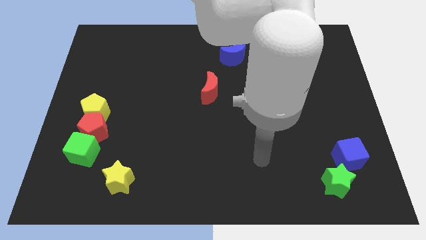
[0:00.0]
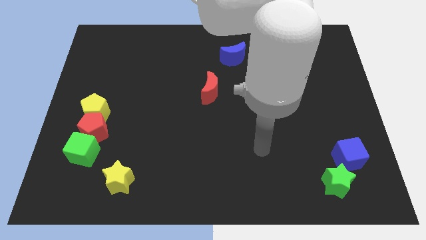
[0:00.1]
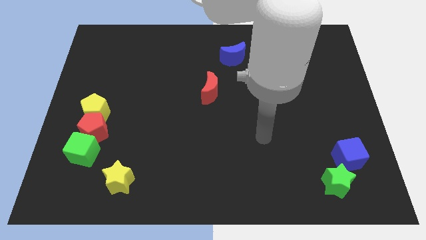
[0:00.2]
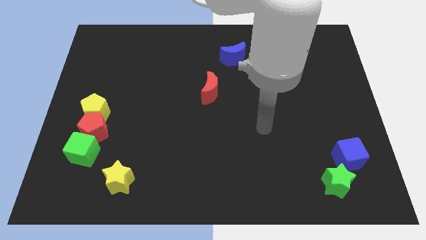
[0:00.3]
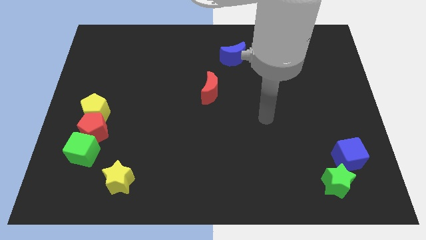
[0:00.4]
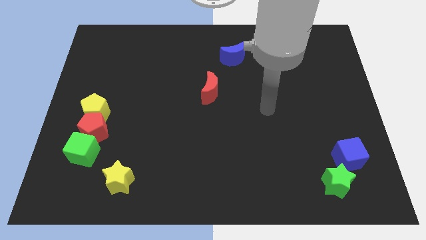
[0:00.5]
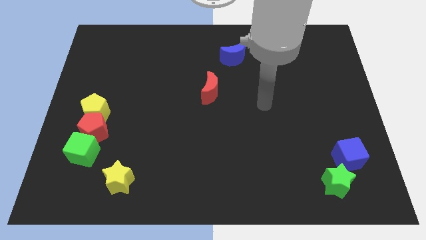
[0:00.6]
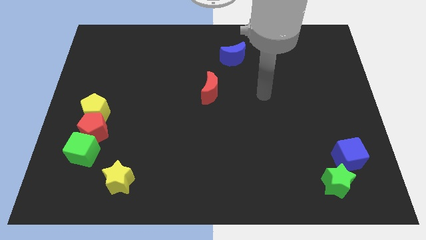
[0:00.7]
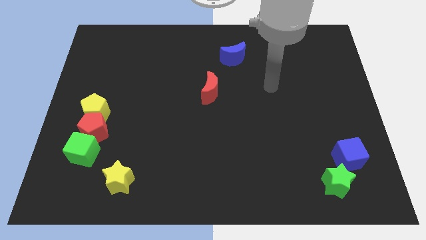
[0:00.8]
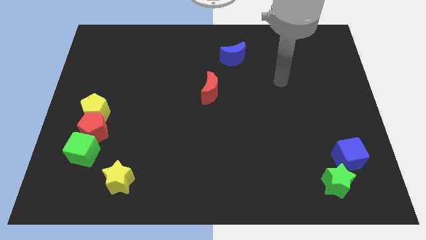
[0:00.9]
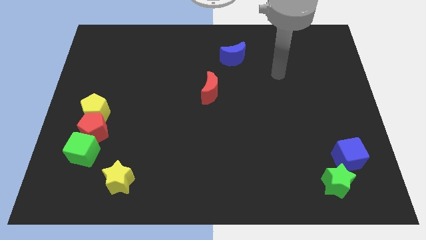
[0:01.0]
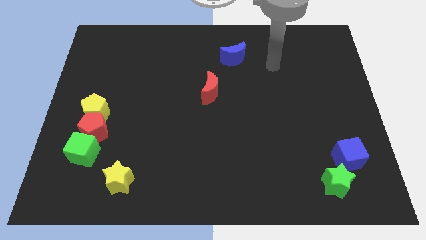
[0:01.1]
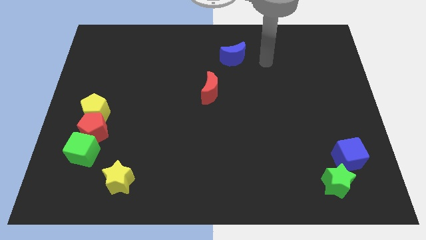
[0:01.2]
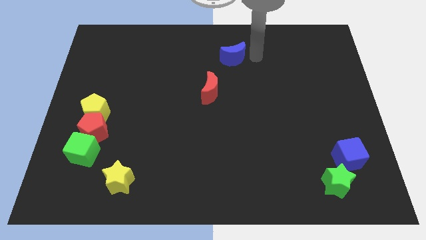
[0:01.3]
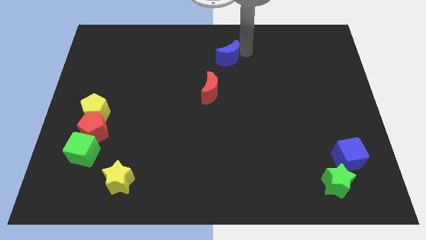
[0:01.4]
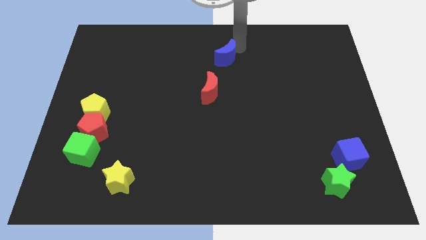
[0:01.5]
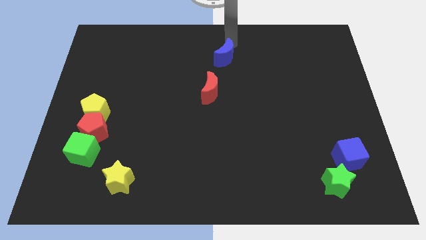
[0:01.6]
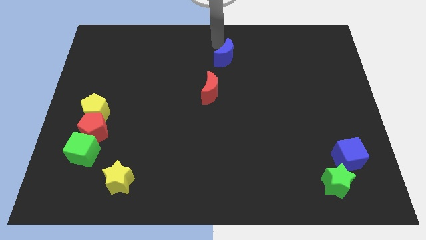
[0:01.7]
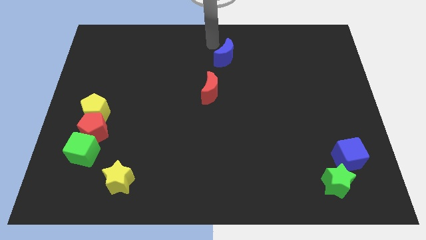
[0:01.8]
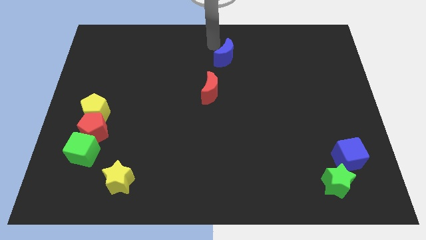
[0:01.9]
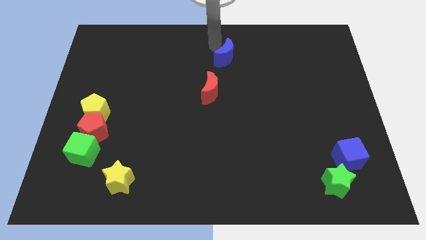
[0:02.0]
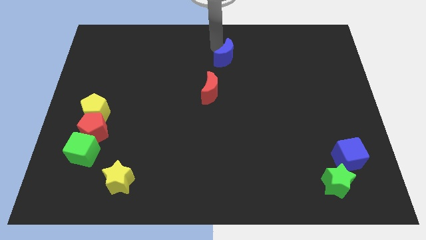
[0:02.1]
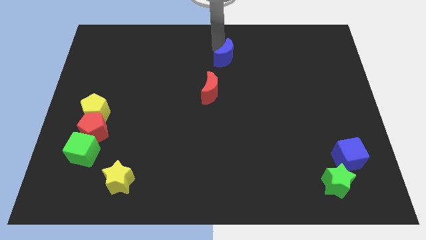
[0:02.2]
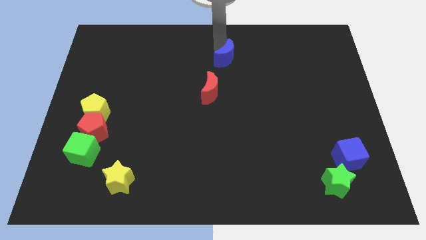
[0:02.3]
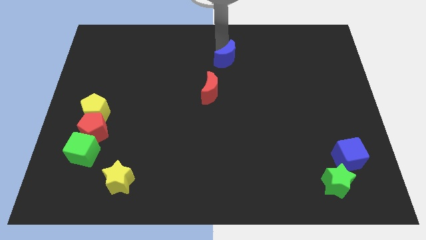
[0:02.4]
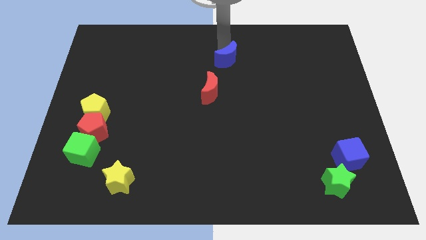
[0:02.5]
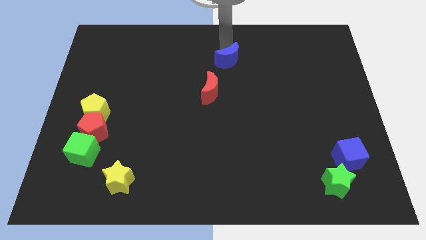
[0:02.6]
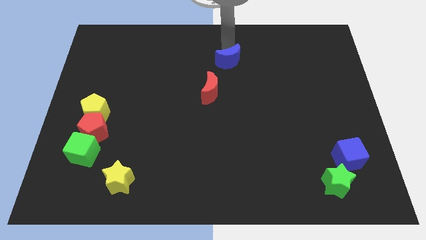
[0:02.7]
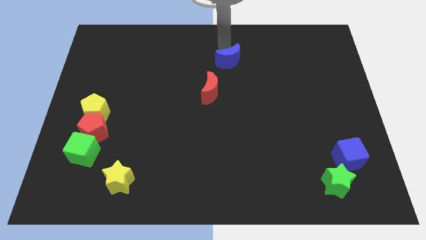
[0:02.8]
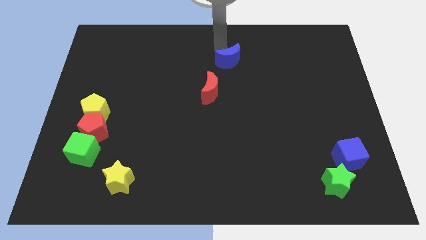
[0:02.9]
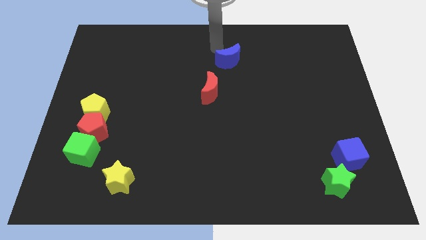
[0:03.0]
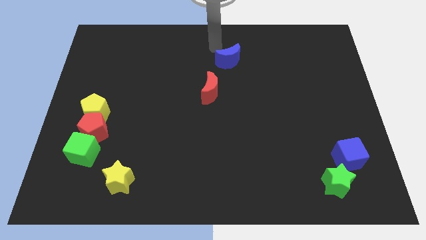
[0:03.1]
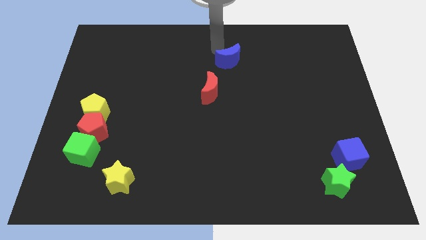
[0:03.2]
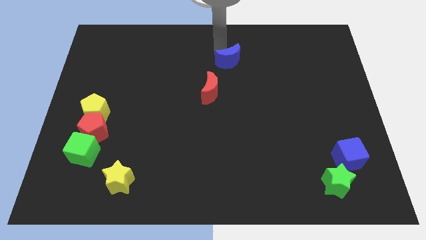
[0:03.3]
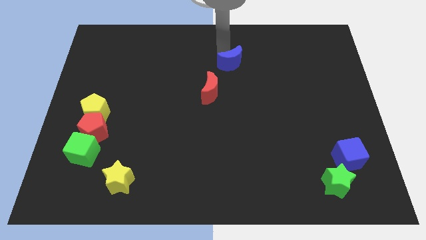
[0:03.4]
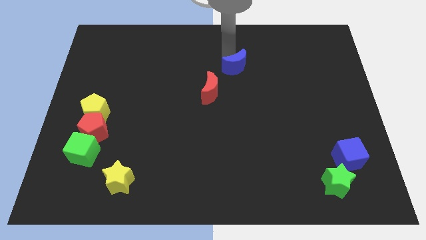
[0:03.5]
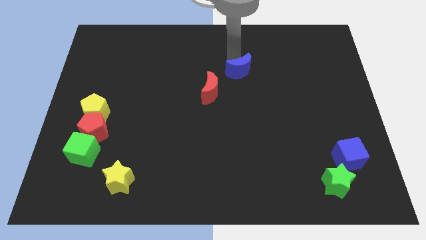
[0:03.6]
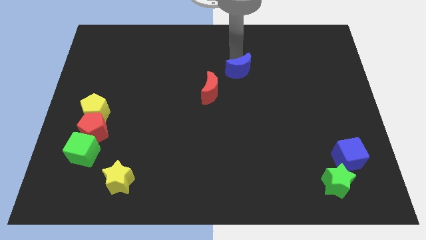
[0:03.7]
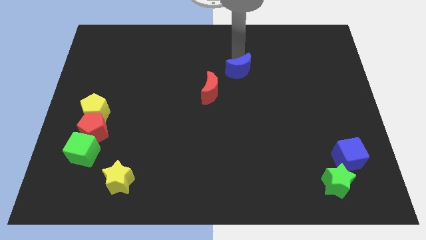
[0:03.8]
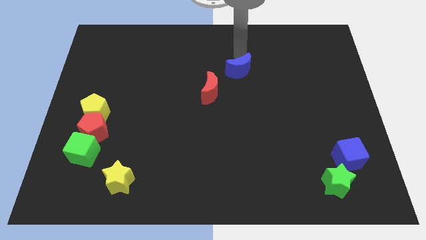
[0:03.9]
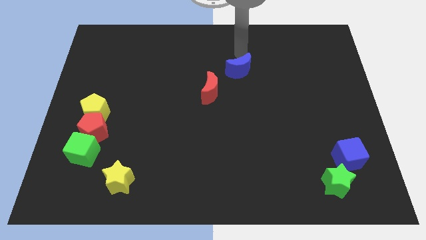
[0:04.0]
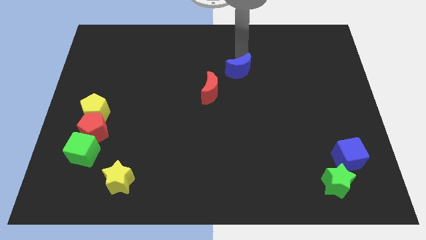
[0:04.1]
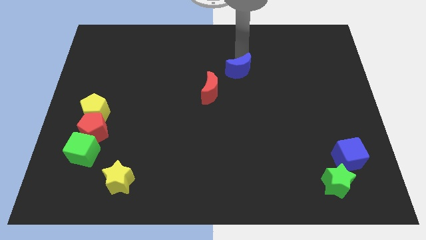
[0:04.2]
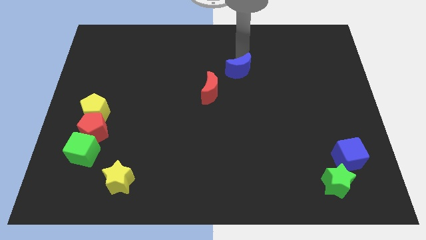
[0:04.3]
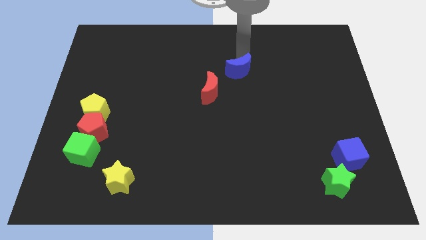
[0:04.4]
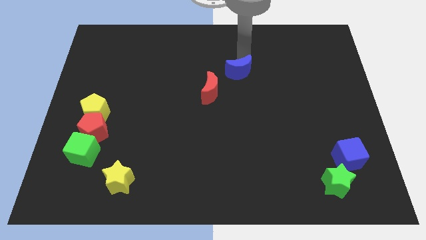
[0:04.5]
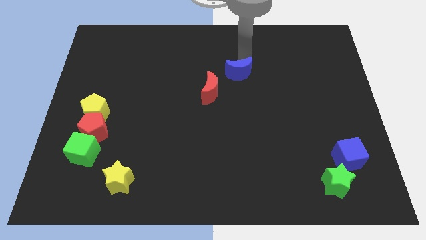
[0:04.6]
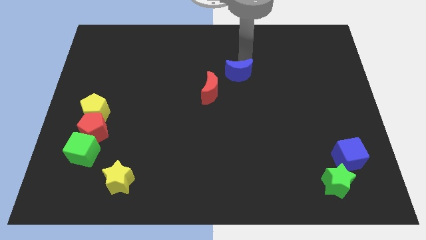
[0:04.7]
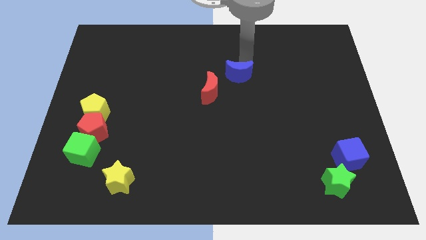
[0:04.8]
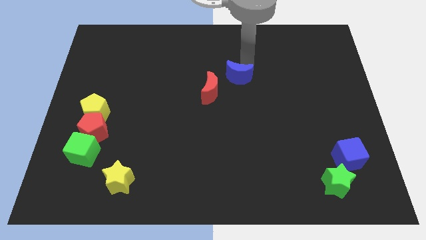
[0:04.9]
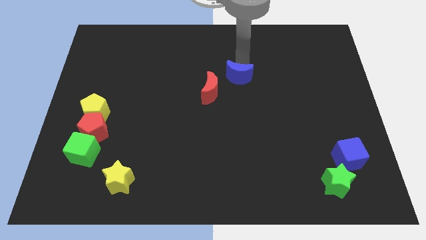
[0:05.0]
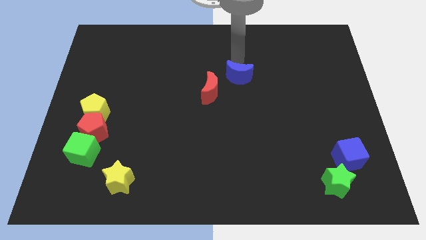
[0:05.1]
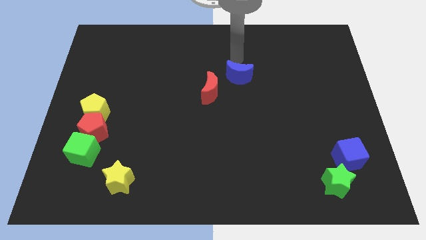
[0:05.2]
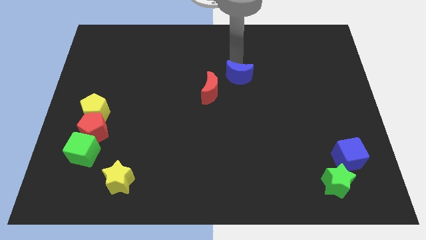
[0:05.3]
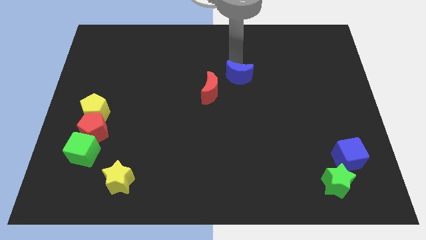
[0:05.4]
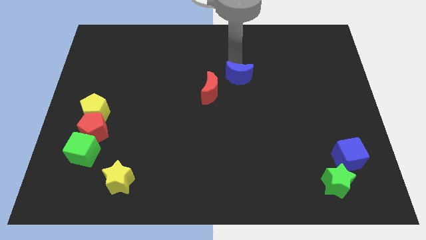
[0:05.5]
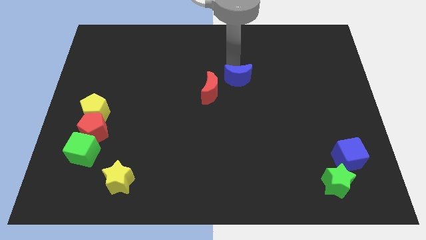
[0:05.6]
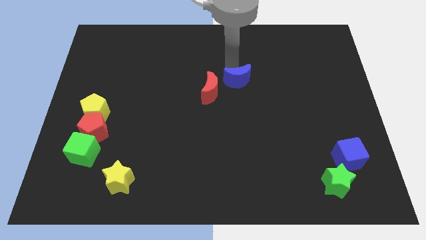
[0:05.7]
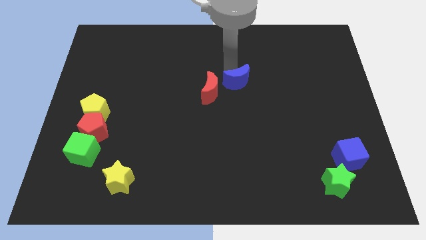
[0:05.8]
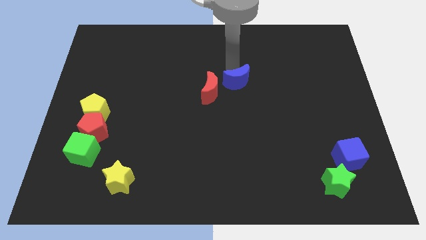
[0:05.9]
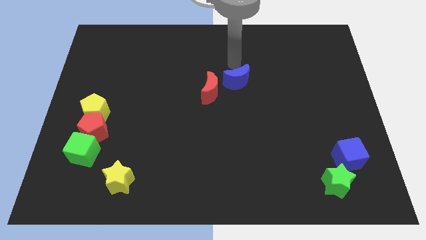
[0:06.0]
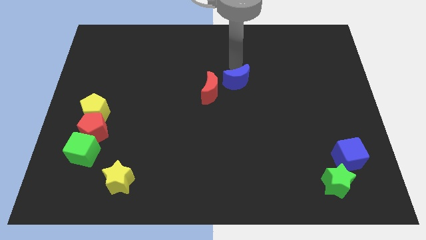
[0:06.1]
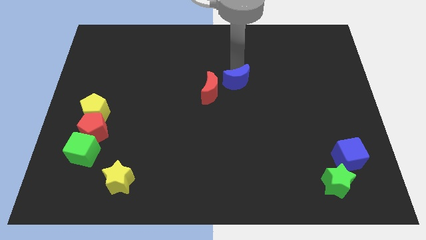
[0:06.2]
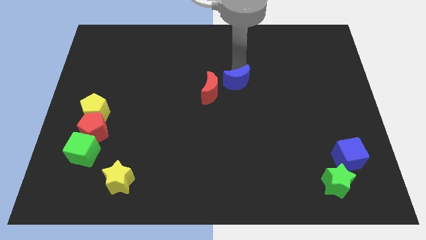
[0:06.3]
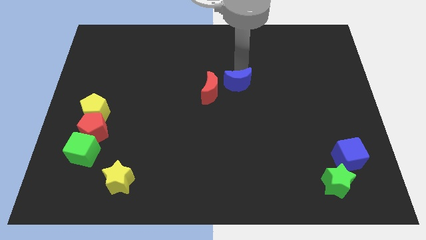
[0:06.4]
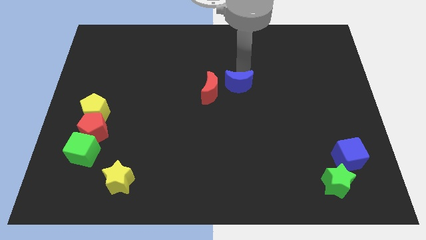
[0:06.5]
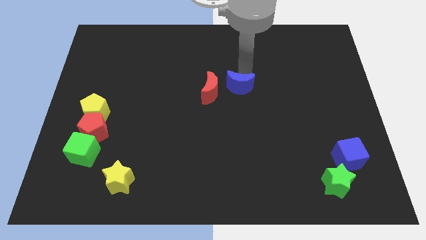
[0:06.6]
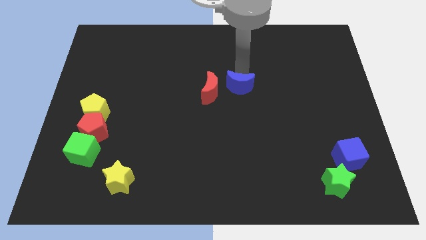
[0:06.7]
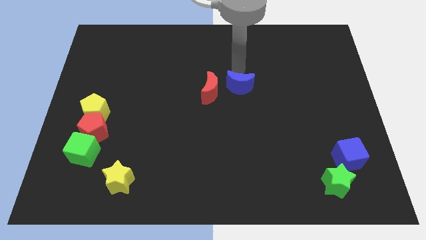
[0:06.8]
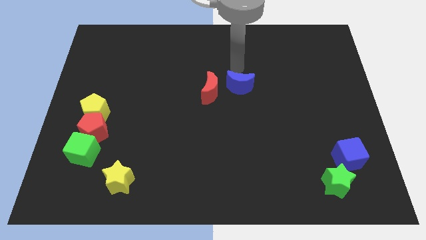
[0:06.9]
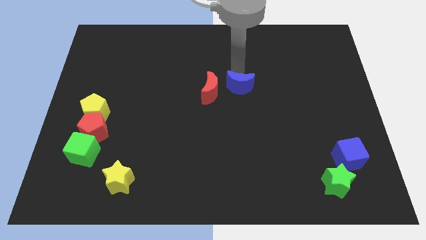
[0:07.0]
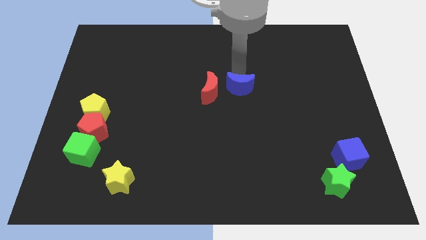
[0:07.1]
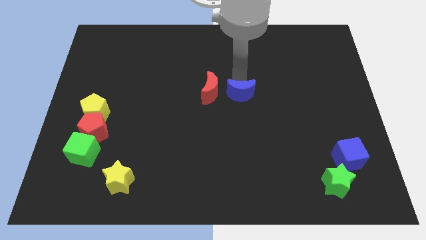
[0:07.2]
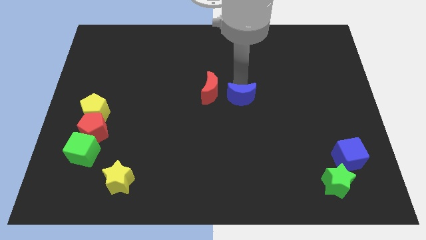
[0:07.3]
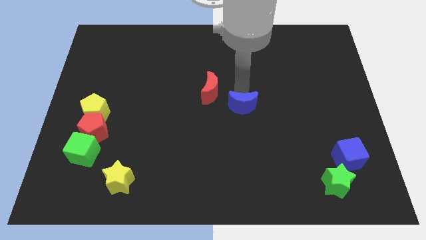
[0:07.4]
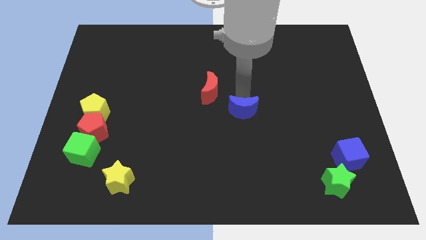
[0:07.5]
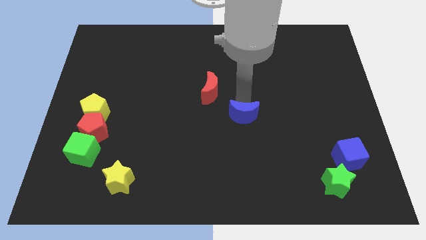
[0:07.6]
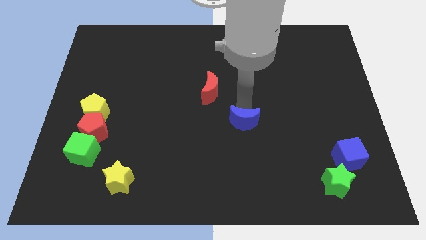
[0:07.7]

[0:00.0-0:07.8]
slide the blue moon down

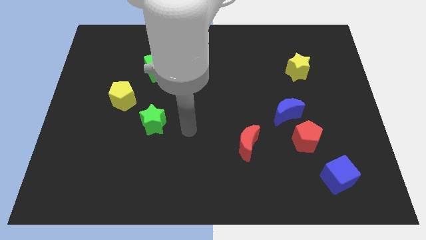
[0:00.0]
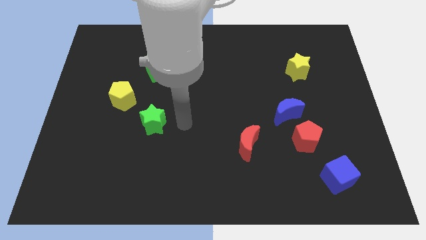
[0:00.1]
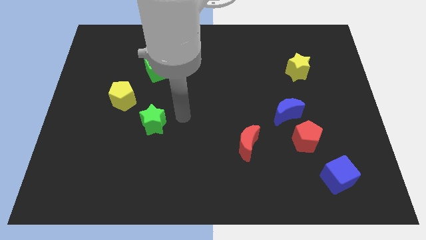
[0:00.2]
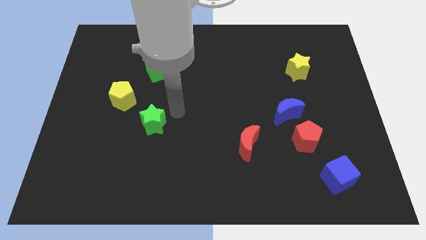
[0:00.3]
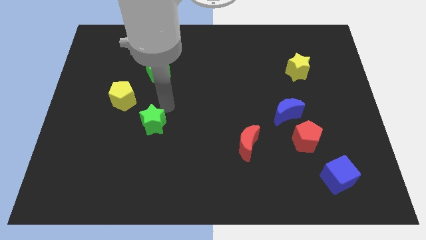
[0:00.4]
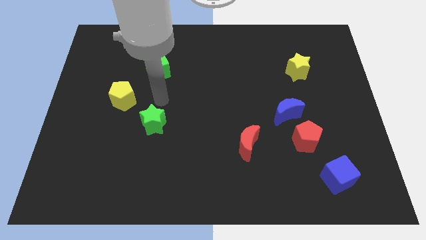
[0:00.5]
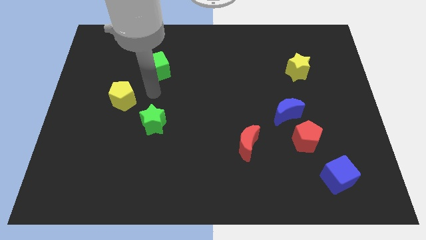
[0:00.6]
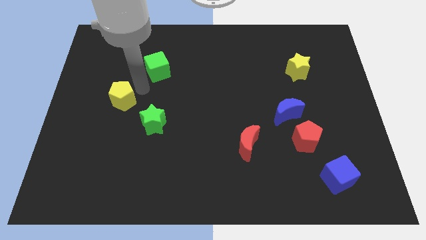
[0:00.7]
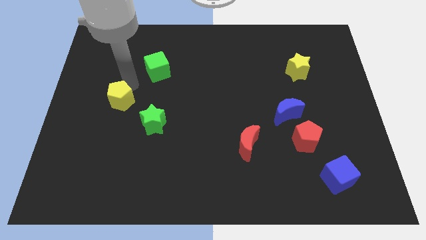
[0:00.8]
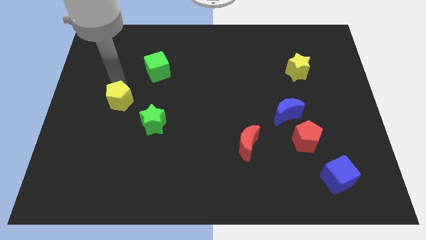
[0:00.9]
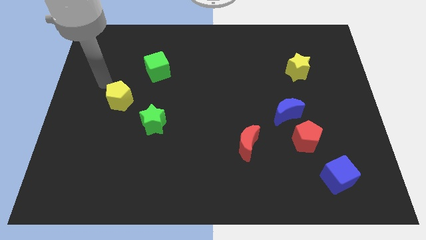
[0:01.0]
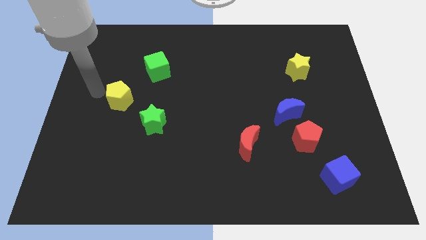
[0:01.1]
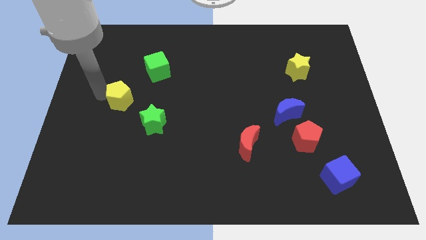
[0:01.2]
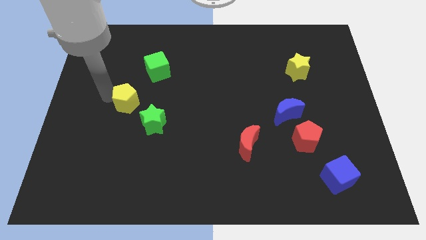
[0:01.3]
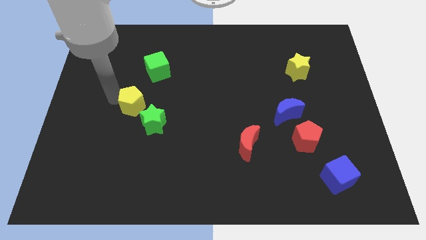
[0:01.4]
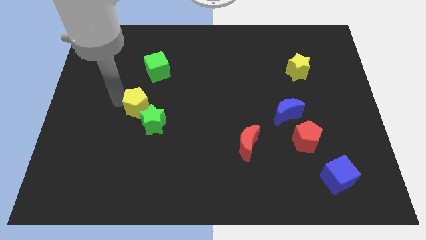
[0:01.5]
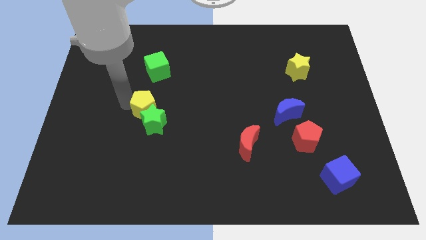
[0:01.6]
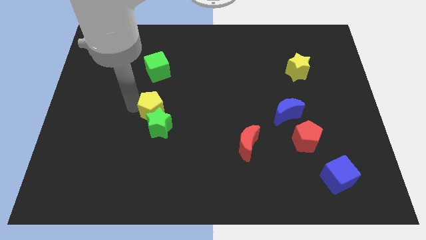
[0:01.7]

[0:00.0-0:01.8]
push the yellow pentagon diagonally downwards and to the right somewhat
